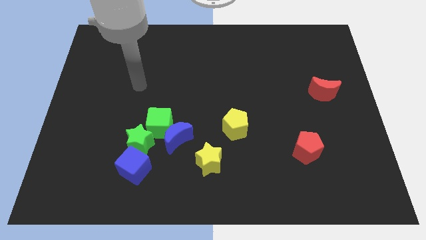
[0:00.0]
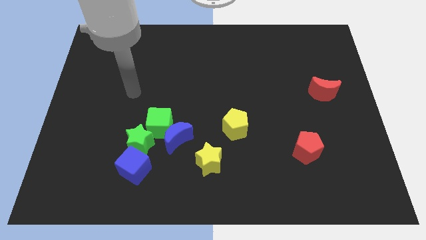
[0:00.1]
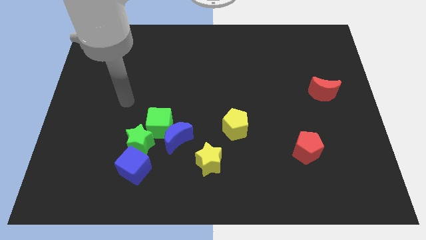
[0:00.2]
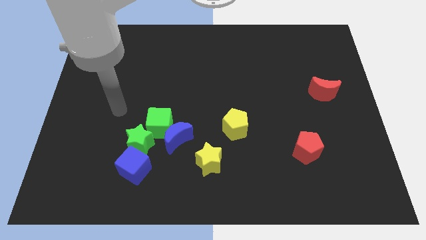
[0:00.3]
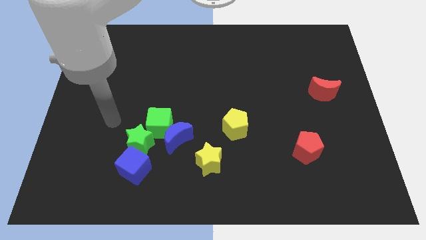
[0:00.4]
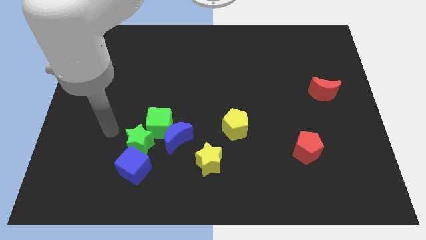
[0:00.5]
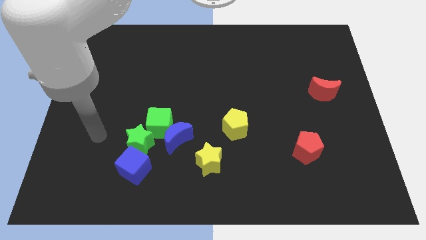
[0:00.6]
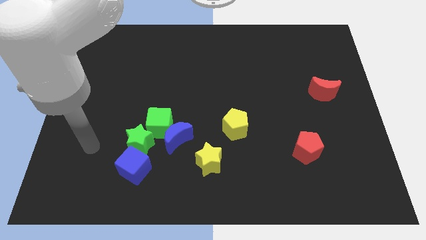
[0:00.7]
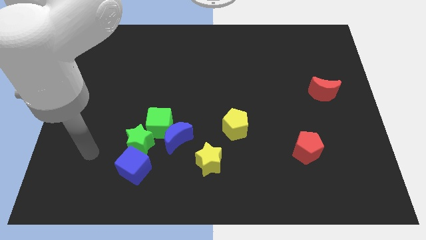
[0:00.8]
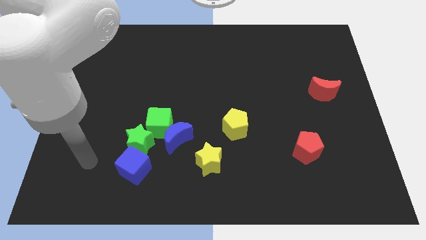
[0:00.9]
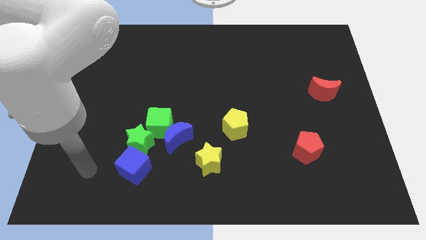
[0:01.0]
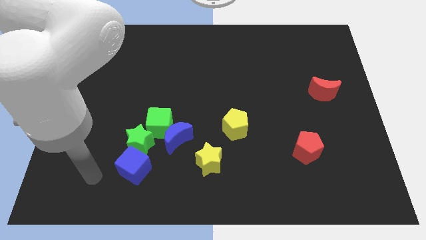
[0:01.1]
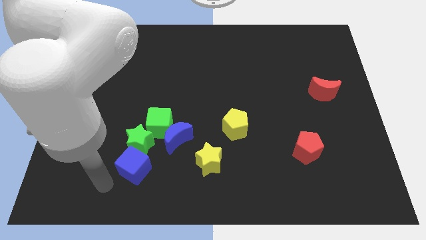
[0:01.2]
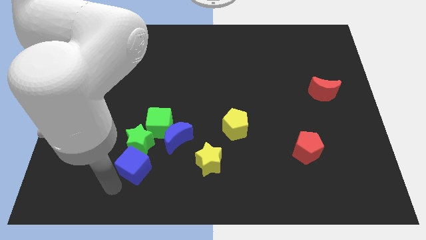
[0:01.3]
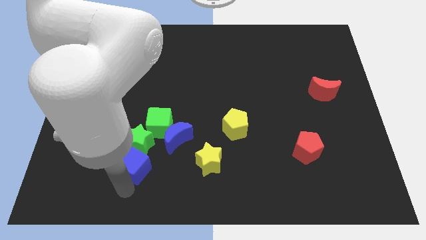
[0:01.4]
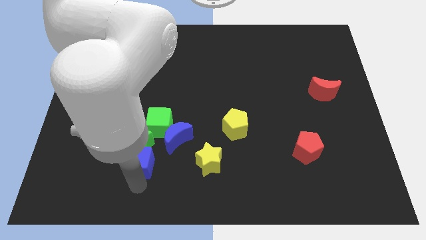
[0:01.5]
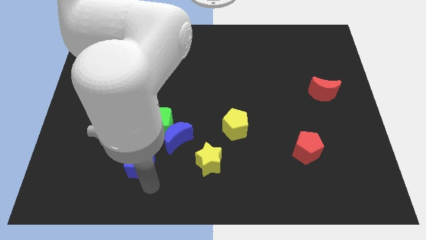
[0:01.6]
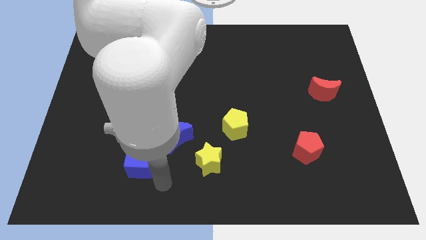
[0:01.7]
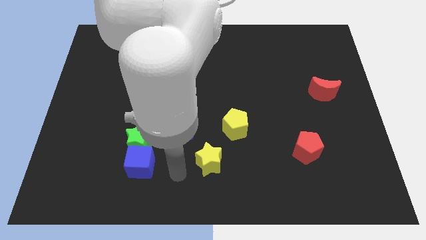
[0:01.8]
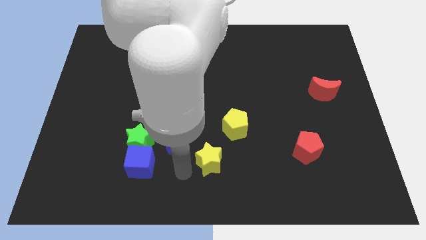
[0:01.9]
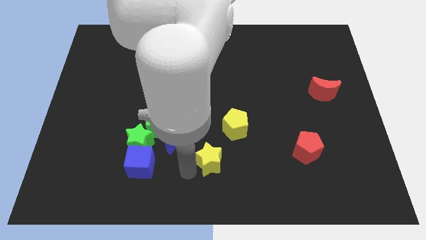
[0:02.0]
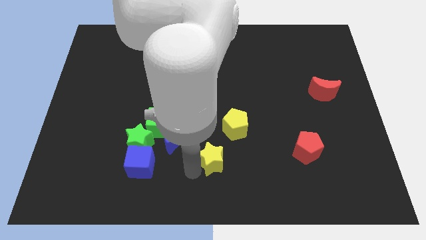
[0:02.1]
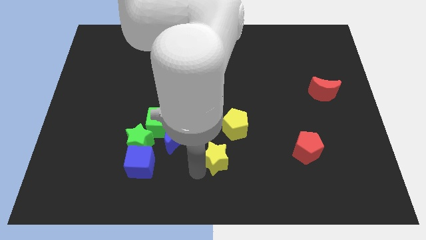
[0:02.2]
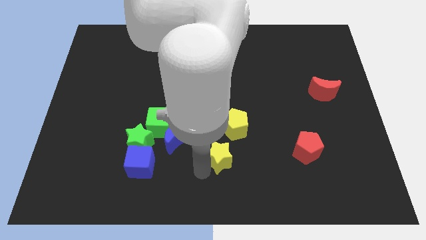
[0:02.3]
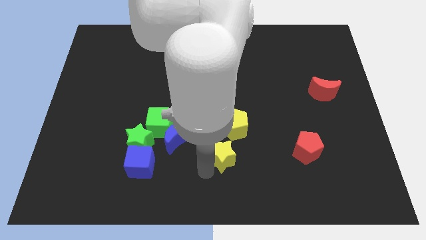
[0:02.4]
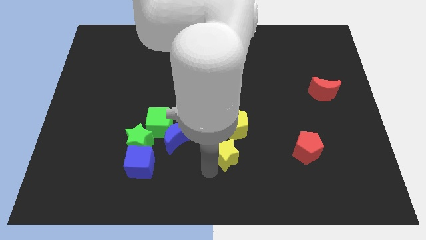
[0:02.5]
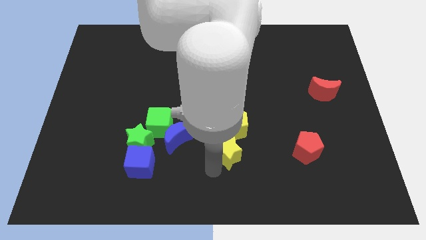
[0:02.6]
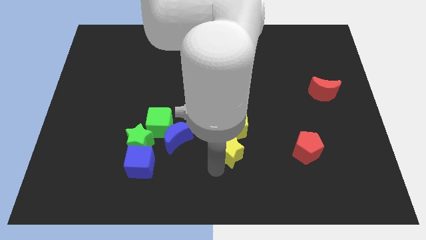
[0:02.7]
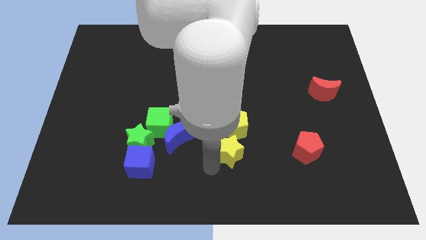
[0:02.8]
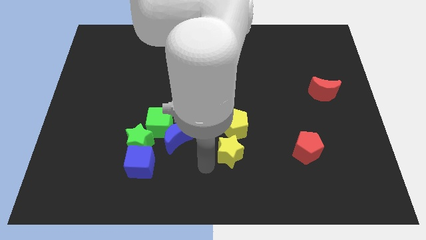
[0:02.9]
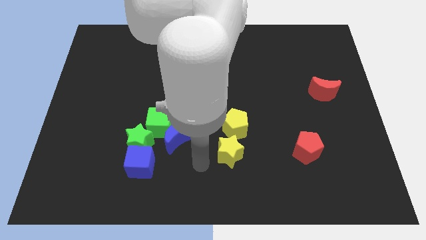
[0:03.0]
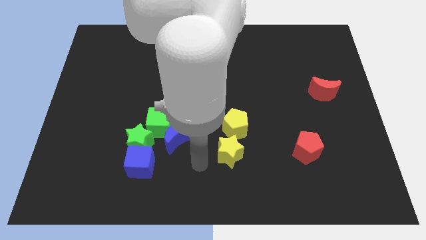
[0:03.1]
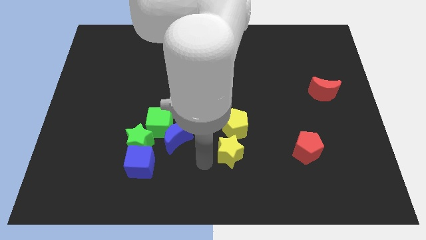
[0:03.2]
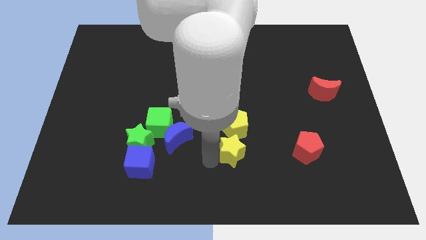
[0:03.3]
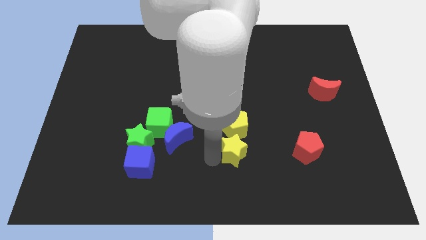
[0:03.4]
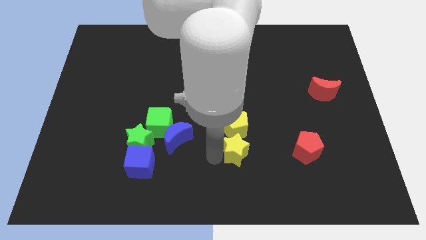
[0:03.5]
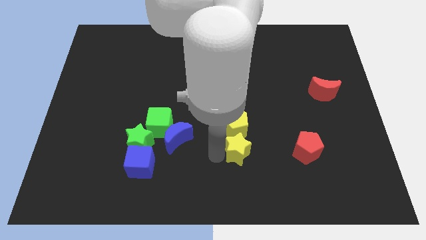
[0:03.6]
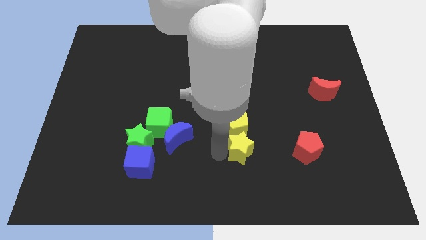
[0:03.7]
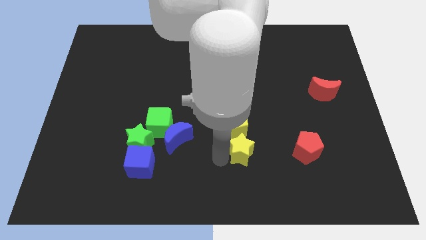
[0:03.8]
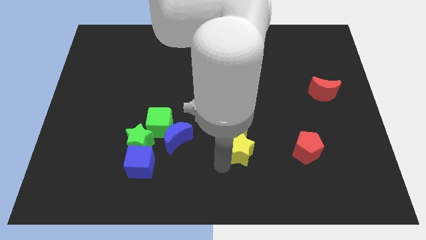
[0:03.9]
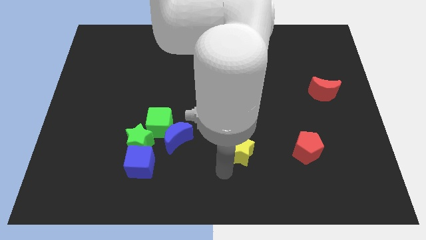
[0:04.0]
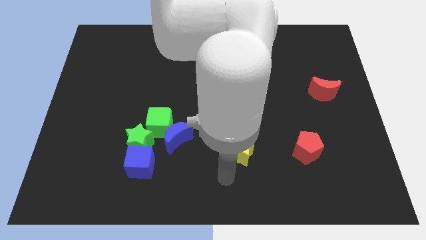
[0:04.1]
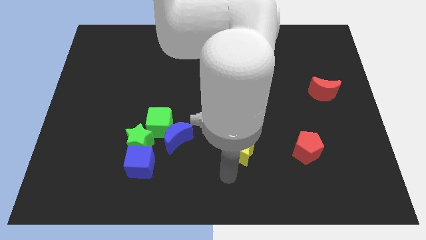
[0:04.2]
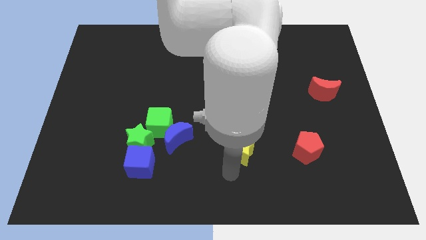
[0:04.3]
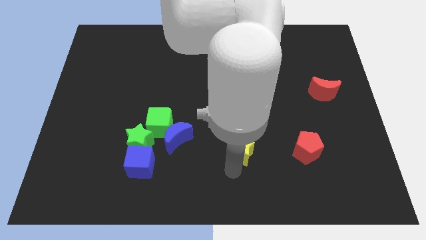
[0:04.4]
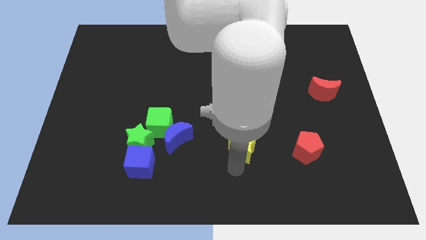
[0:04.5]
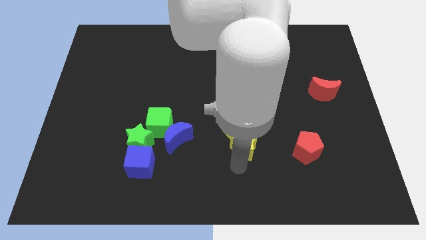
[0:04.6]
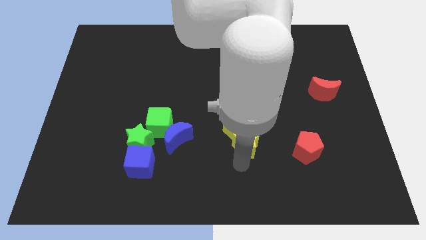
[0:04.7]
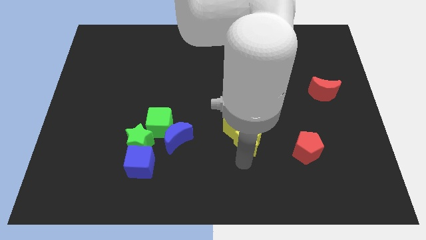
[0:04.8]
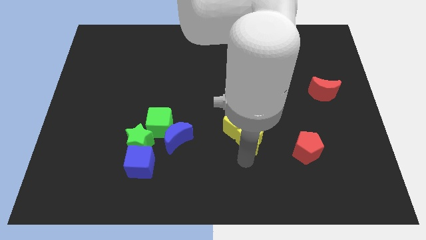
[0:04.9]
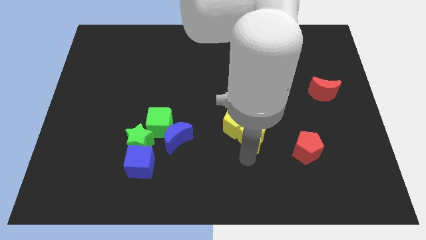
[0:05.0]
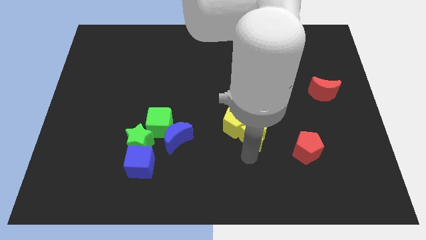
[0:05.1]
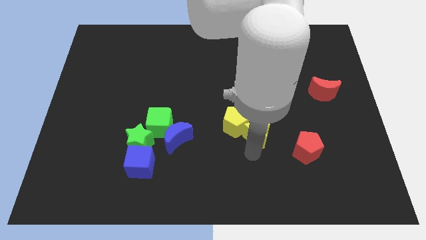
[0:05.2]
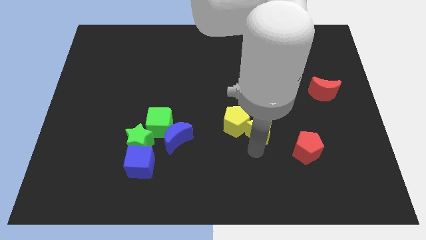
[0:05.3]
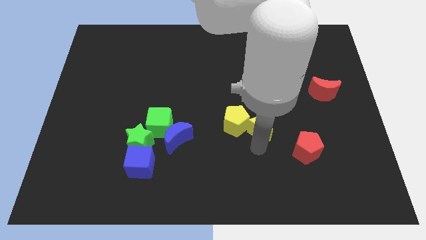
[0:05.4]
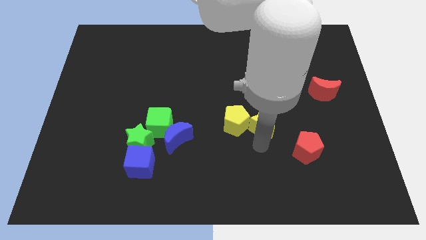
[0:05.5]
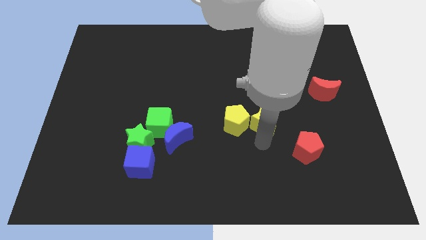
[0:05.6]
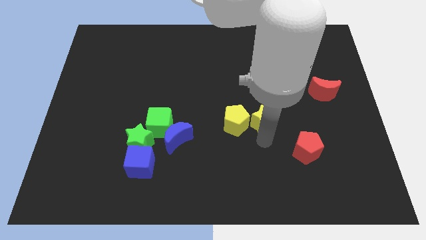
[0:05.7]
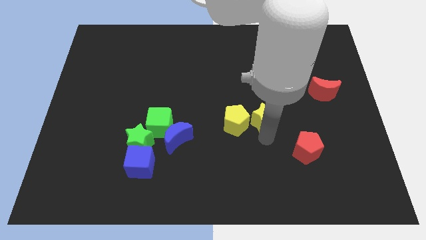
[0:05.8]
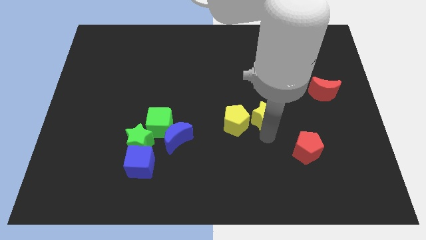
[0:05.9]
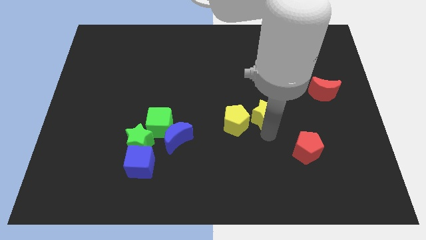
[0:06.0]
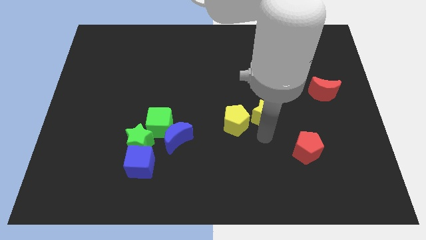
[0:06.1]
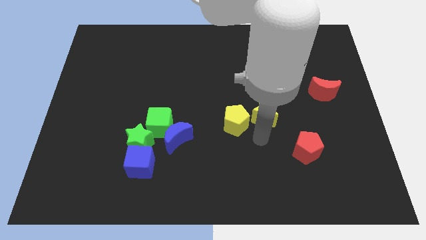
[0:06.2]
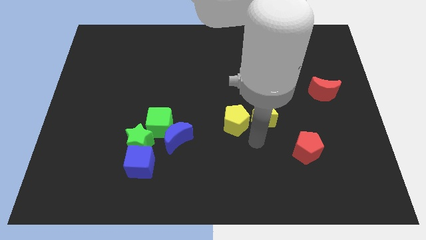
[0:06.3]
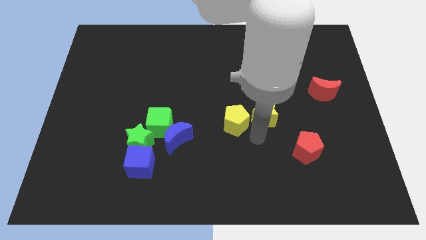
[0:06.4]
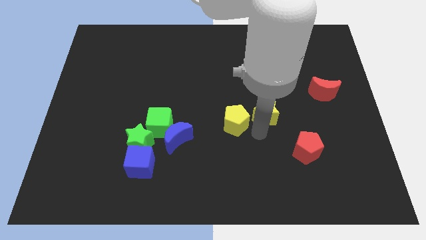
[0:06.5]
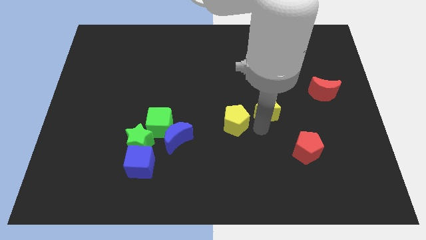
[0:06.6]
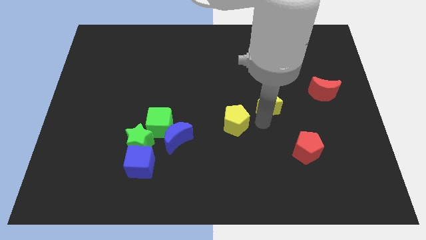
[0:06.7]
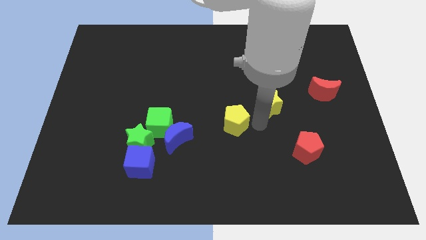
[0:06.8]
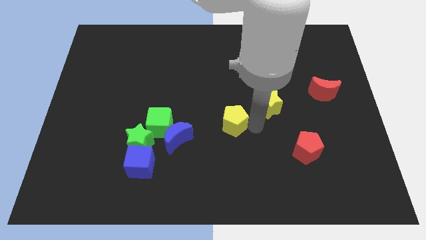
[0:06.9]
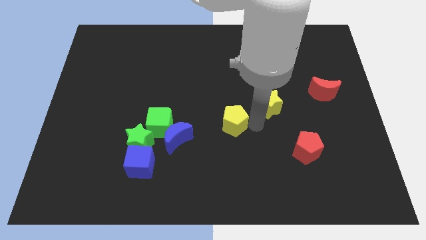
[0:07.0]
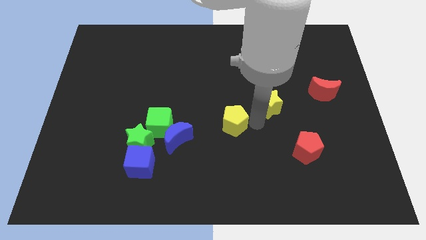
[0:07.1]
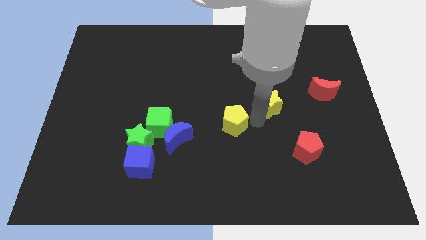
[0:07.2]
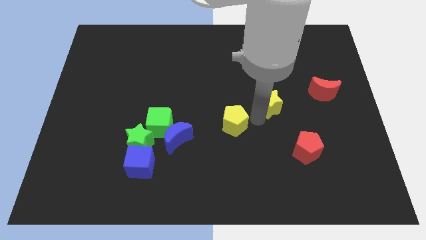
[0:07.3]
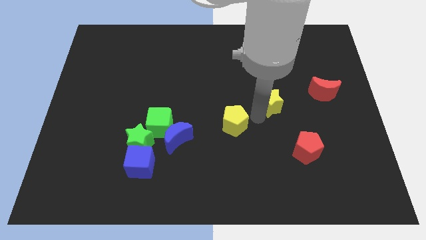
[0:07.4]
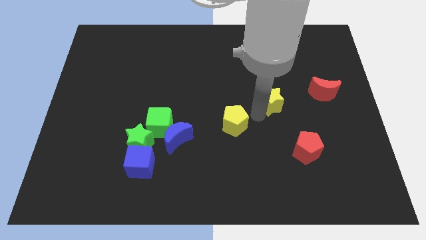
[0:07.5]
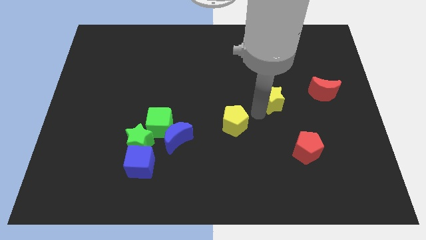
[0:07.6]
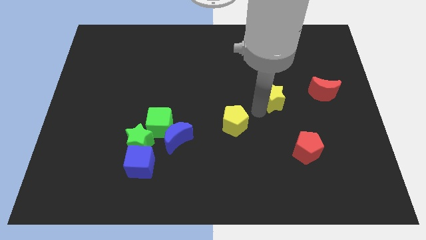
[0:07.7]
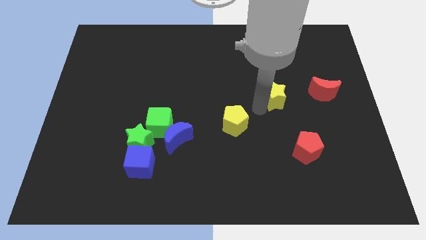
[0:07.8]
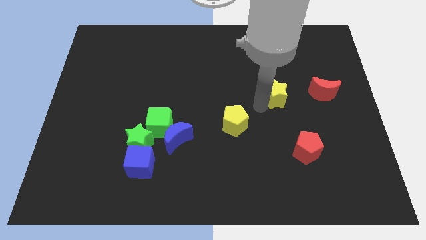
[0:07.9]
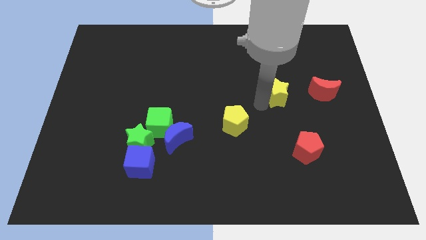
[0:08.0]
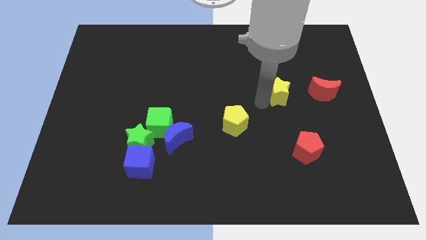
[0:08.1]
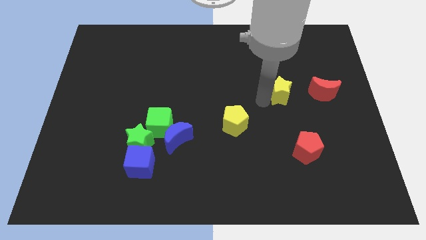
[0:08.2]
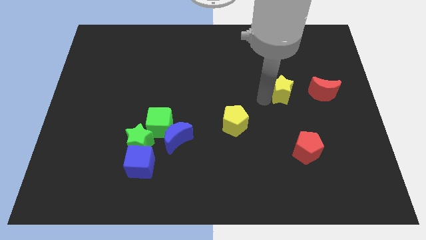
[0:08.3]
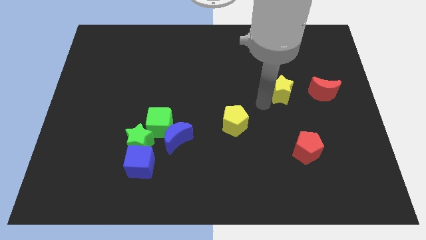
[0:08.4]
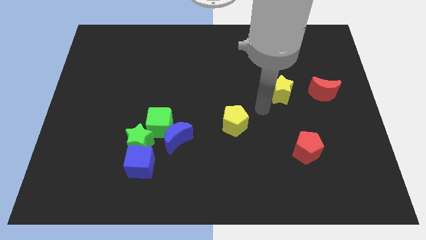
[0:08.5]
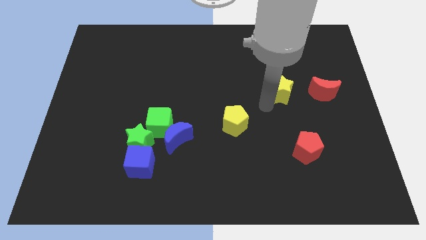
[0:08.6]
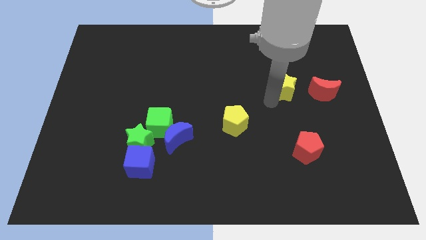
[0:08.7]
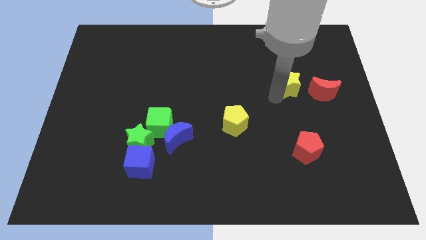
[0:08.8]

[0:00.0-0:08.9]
put the yellow star diagonally up and to the left of the red moon
